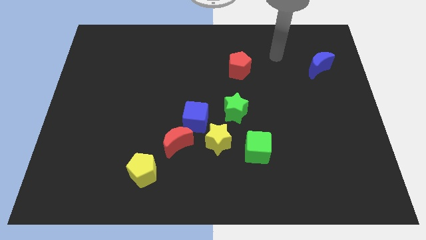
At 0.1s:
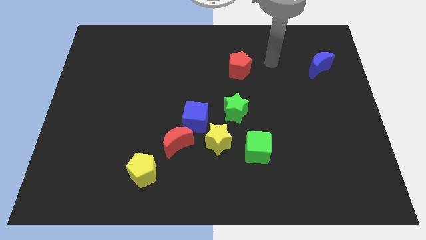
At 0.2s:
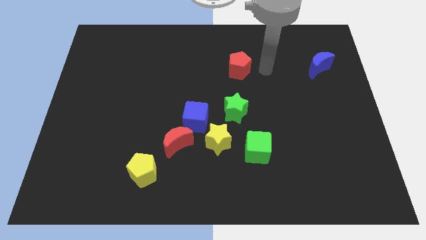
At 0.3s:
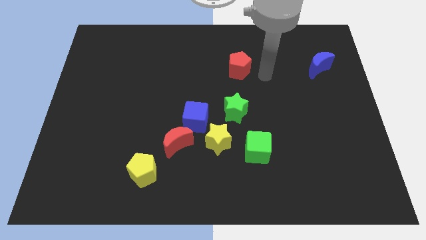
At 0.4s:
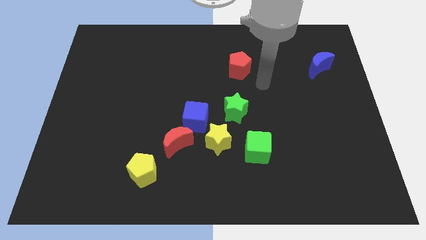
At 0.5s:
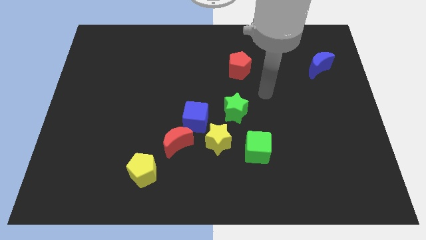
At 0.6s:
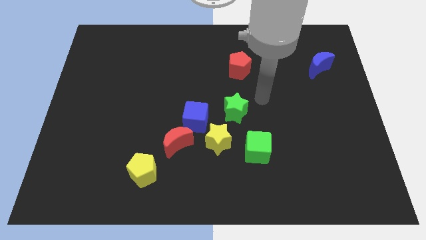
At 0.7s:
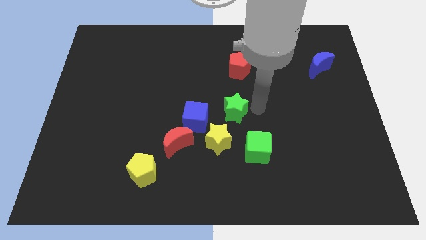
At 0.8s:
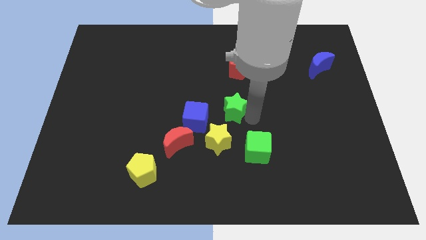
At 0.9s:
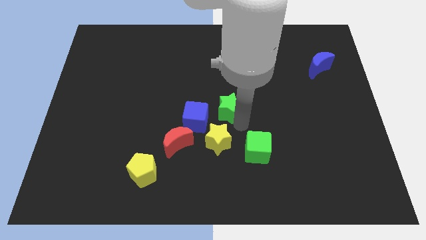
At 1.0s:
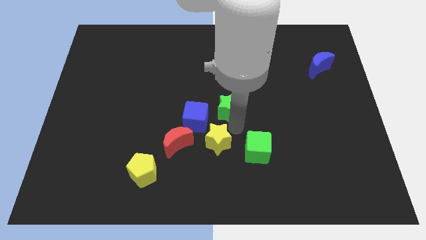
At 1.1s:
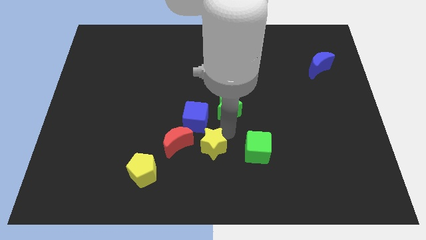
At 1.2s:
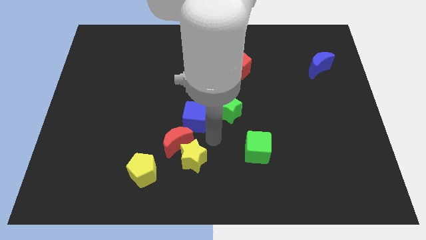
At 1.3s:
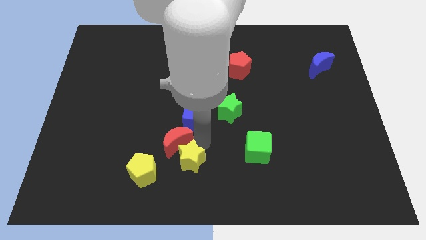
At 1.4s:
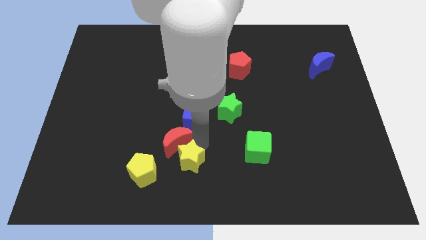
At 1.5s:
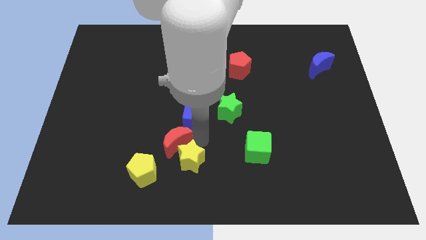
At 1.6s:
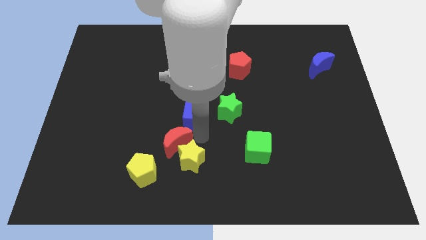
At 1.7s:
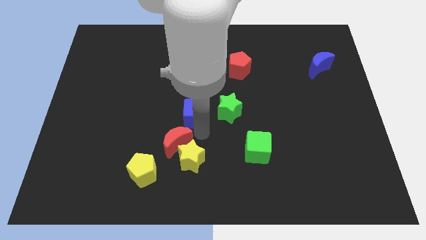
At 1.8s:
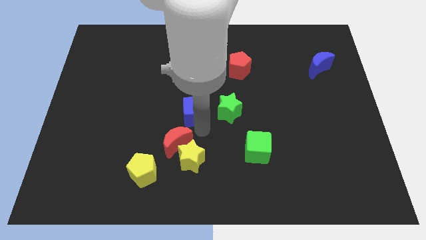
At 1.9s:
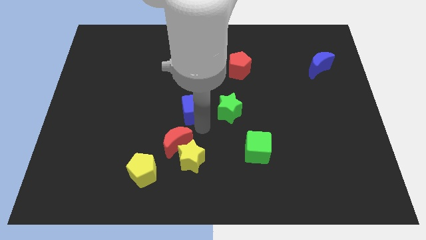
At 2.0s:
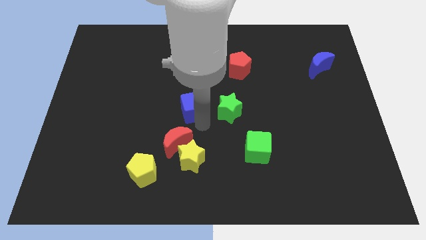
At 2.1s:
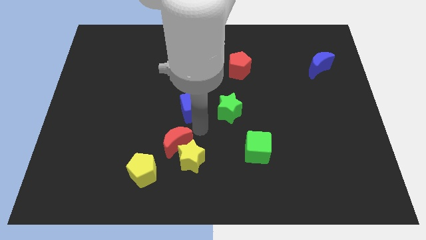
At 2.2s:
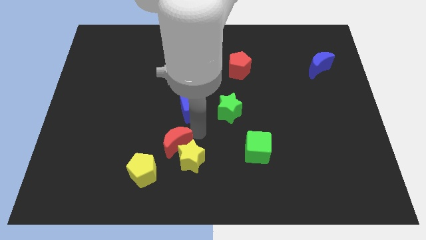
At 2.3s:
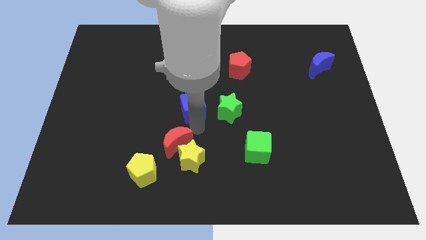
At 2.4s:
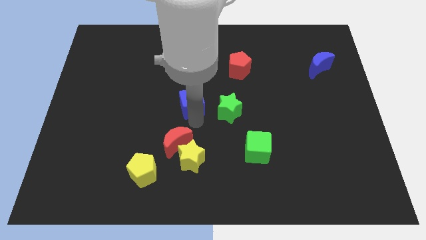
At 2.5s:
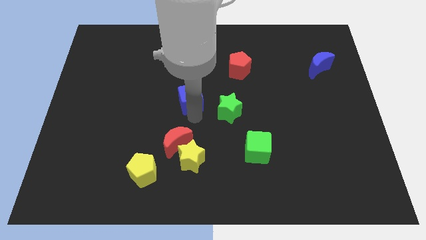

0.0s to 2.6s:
move the blue cube away from the clump

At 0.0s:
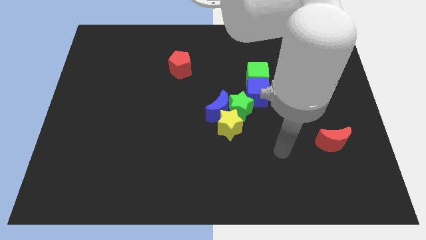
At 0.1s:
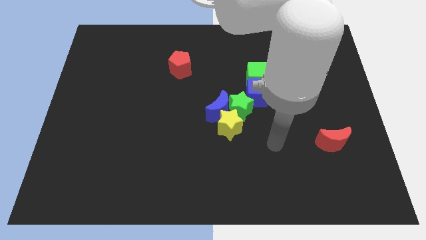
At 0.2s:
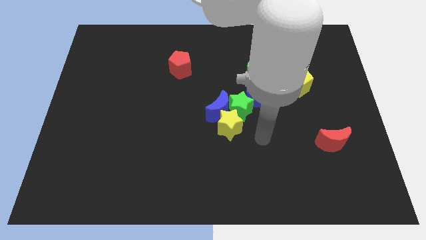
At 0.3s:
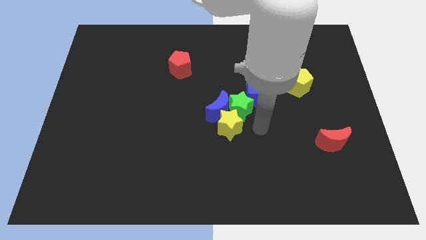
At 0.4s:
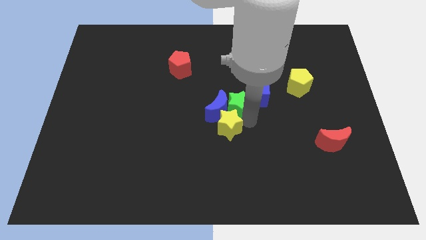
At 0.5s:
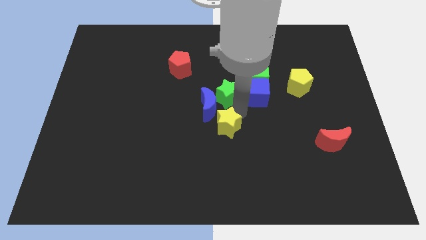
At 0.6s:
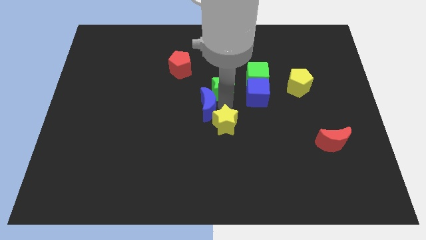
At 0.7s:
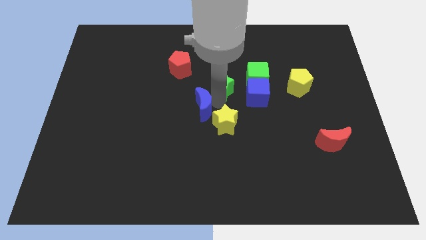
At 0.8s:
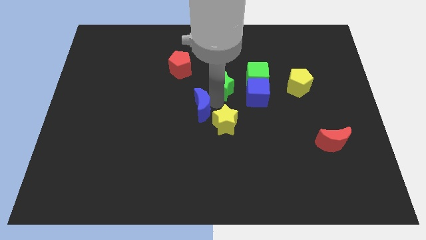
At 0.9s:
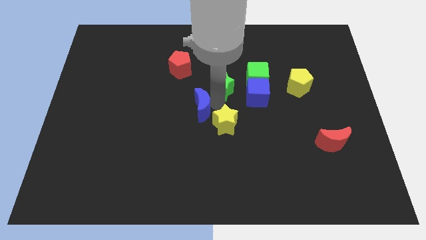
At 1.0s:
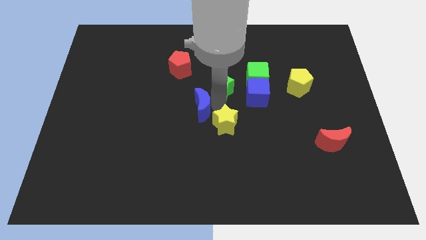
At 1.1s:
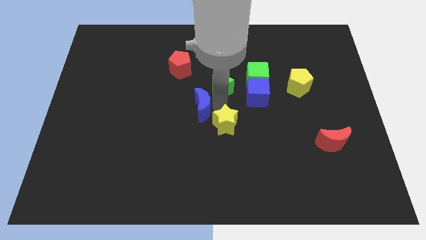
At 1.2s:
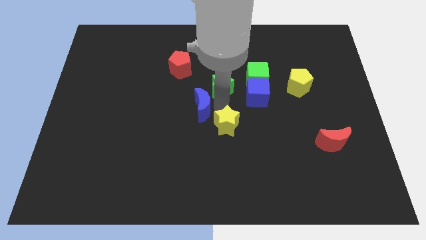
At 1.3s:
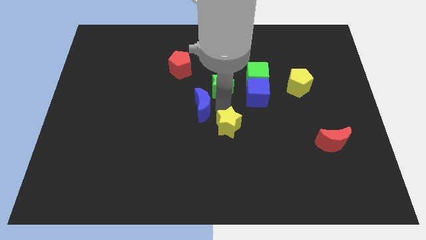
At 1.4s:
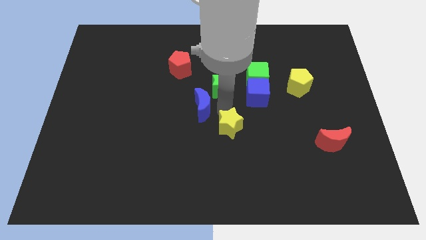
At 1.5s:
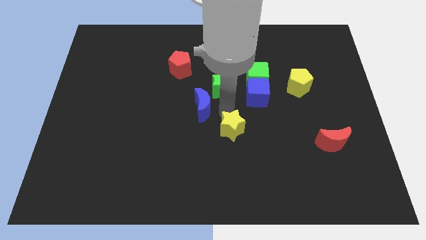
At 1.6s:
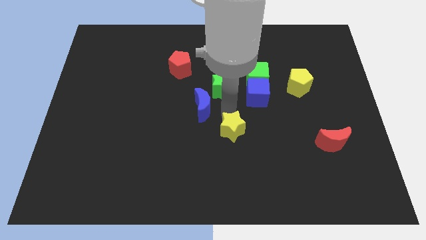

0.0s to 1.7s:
separate the yellow star from the blue moon and green star

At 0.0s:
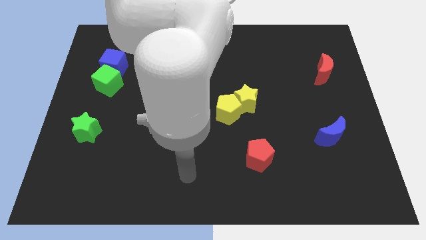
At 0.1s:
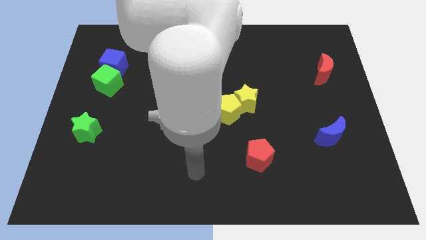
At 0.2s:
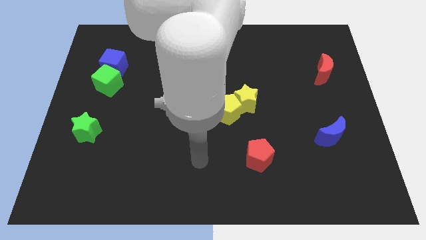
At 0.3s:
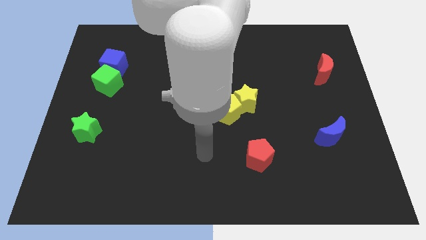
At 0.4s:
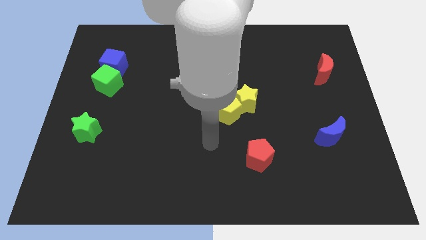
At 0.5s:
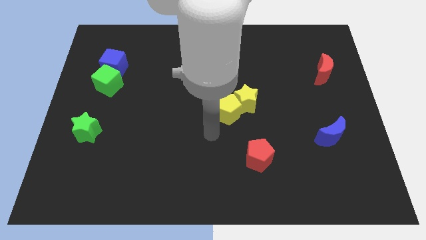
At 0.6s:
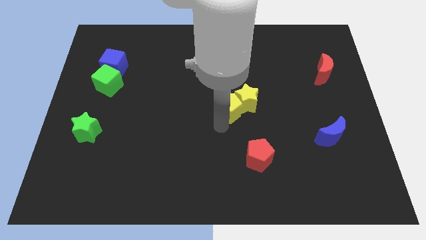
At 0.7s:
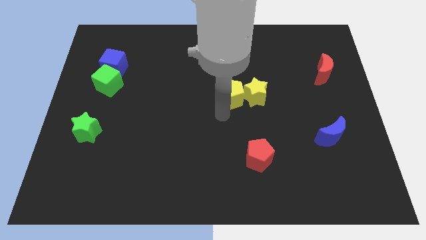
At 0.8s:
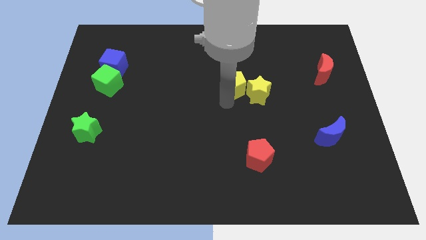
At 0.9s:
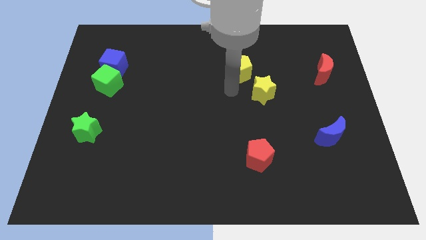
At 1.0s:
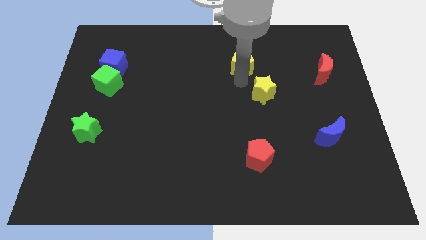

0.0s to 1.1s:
separate the yellow star from the yellow pentagon

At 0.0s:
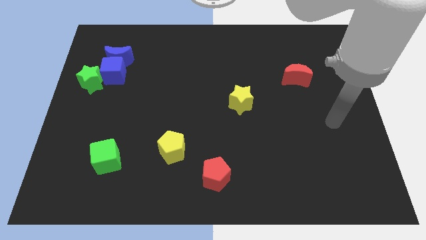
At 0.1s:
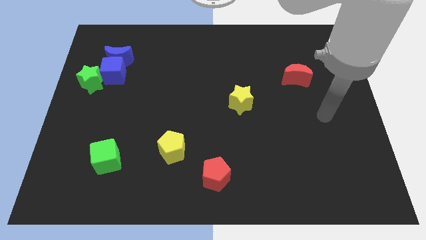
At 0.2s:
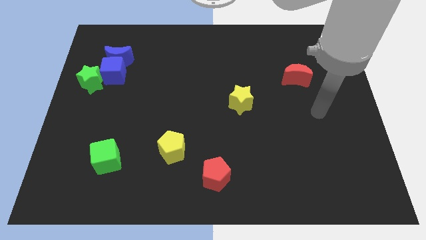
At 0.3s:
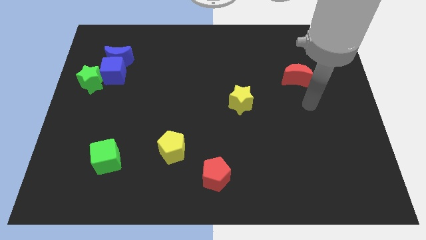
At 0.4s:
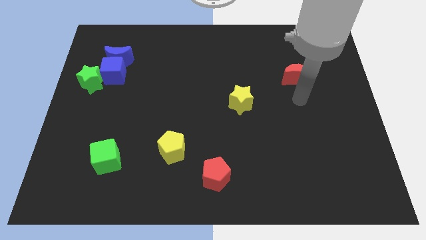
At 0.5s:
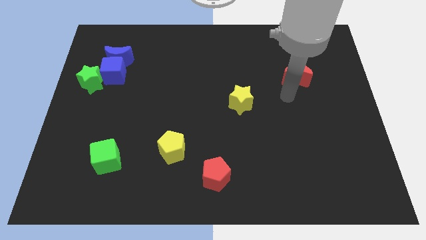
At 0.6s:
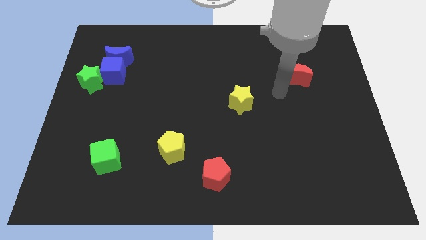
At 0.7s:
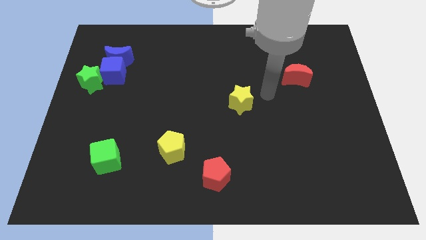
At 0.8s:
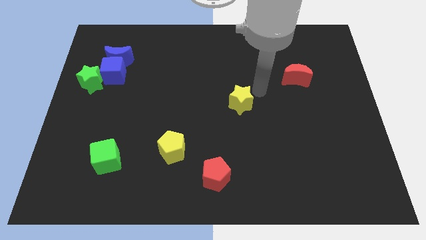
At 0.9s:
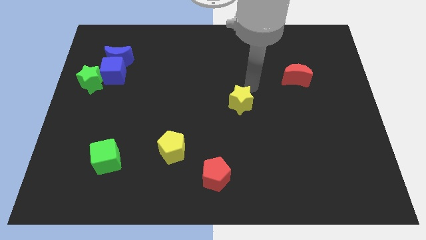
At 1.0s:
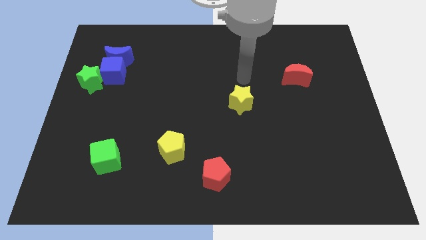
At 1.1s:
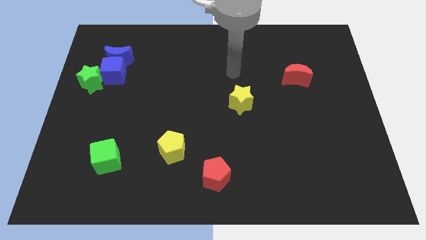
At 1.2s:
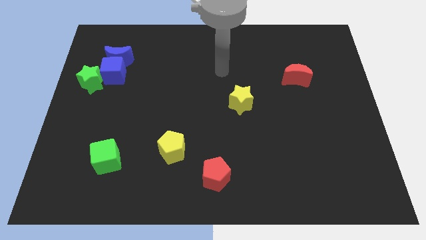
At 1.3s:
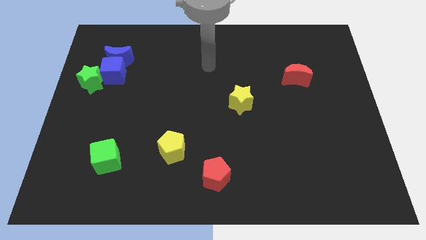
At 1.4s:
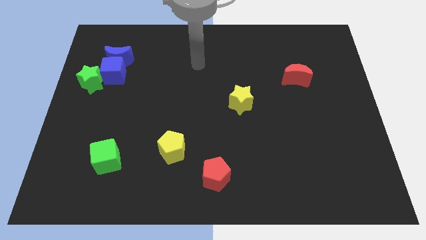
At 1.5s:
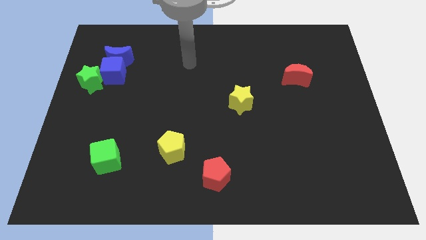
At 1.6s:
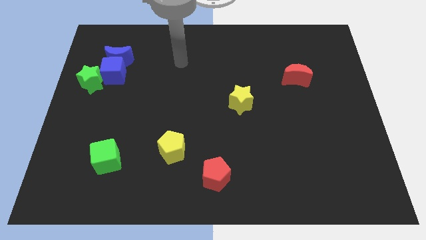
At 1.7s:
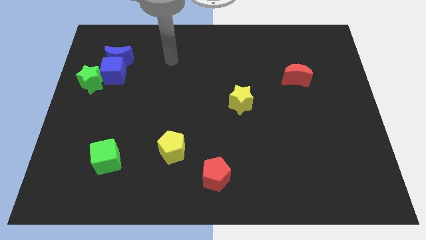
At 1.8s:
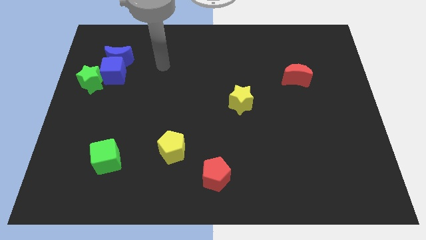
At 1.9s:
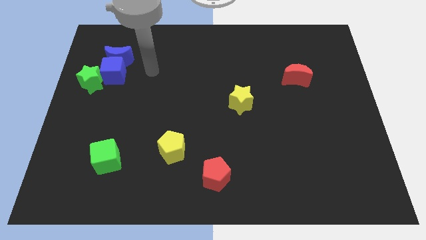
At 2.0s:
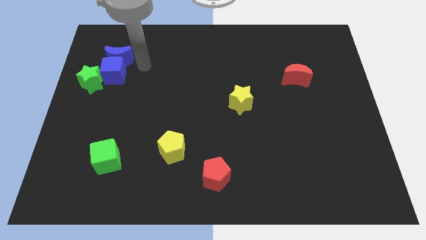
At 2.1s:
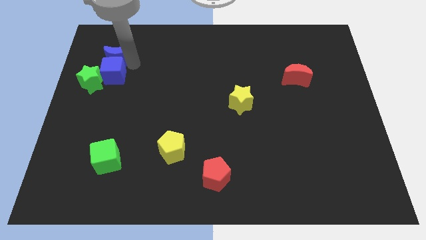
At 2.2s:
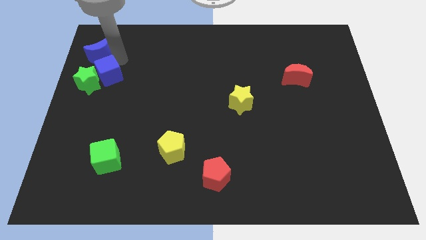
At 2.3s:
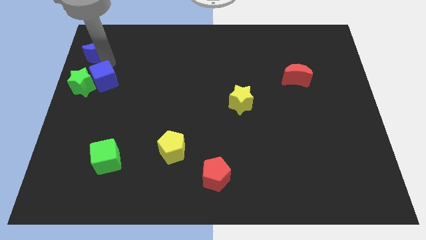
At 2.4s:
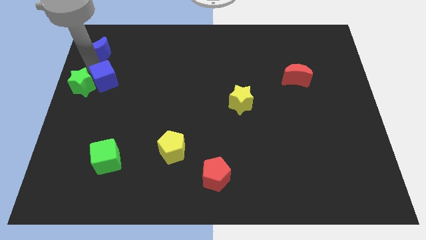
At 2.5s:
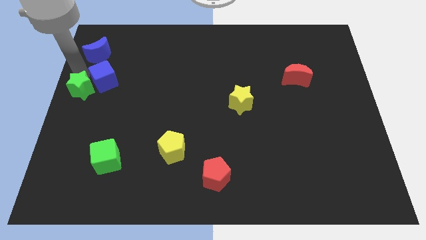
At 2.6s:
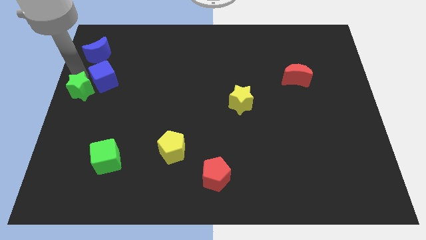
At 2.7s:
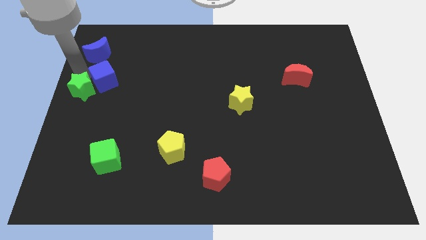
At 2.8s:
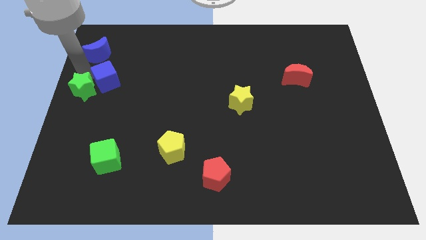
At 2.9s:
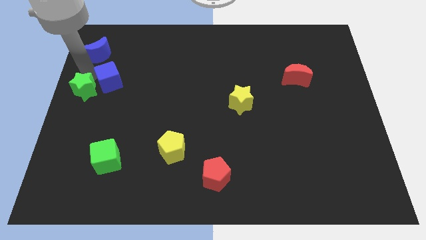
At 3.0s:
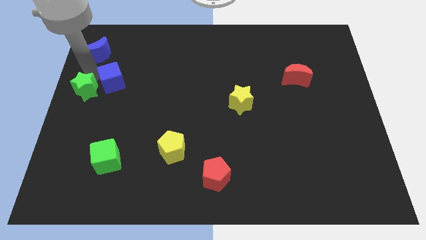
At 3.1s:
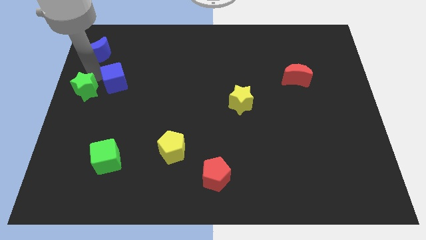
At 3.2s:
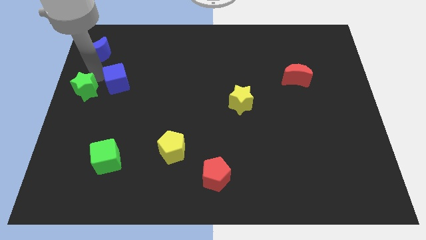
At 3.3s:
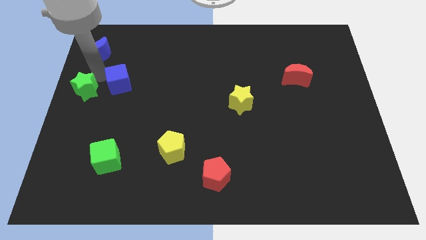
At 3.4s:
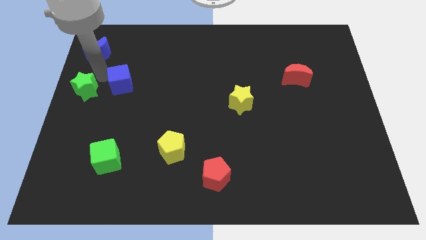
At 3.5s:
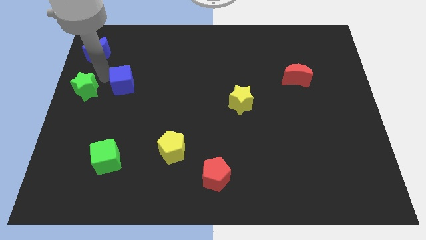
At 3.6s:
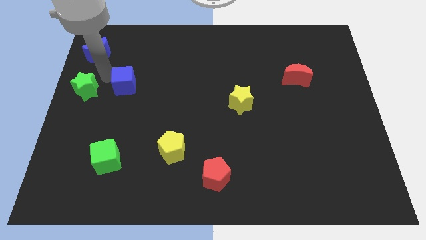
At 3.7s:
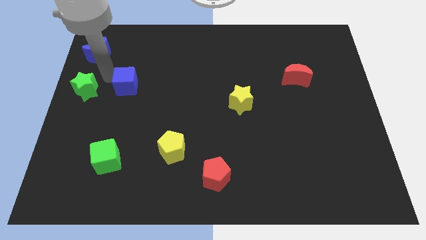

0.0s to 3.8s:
pull the blue cube apart from the blue moon and green star

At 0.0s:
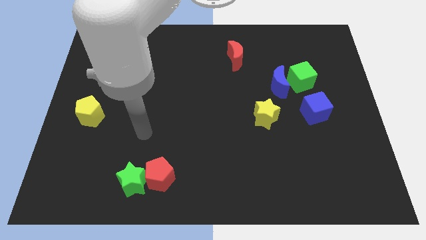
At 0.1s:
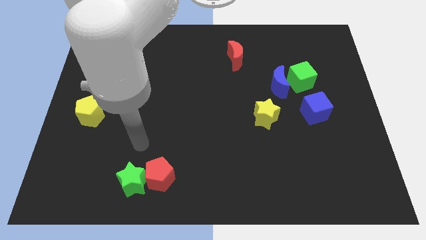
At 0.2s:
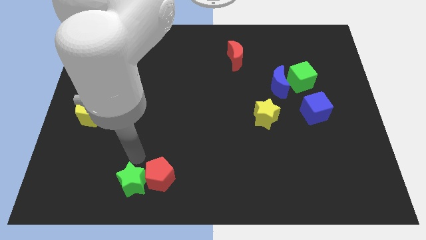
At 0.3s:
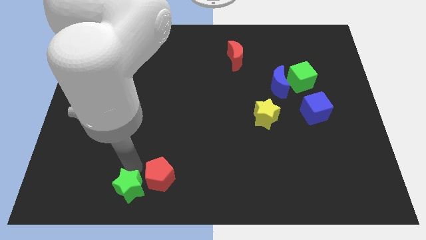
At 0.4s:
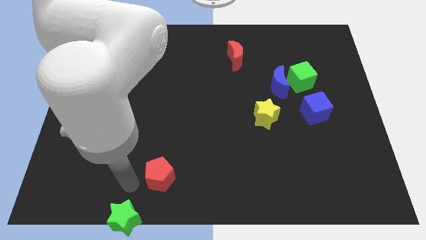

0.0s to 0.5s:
separate the red pentagon from the green star
